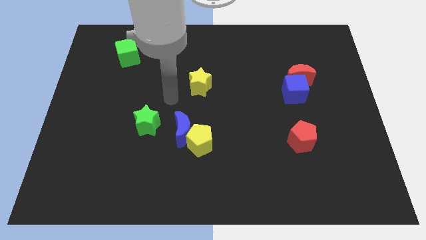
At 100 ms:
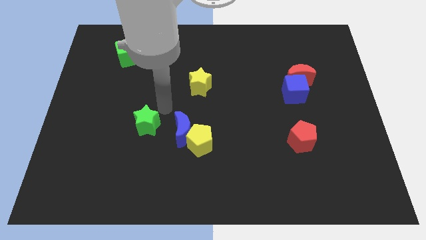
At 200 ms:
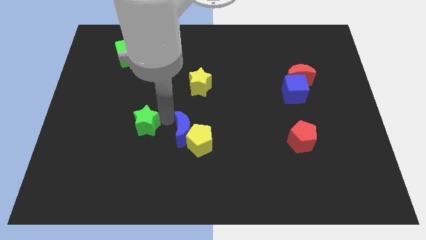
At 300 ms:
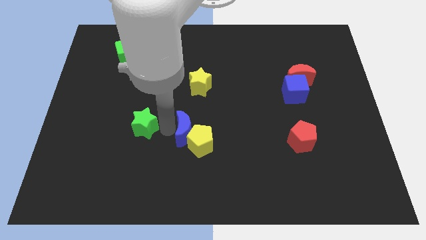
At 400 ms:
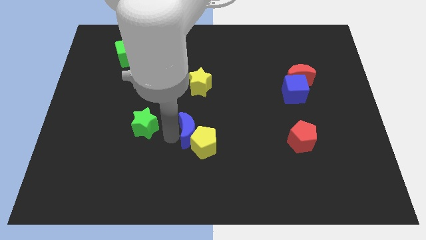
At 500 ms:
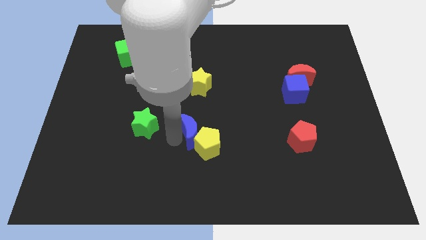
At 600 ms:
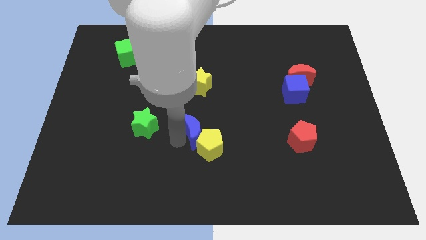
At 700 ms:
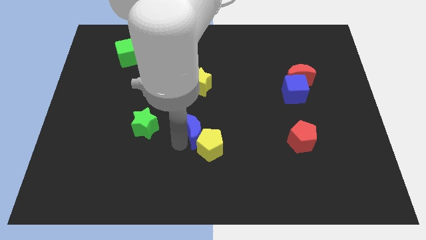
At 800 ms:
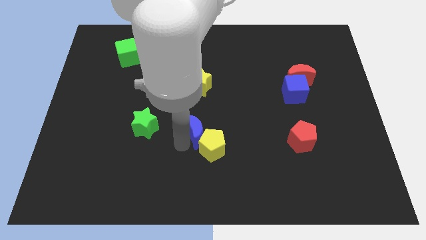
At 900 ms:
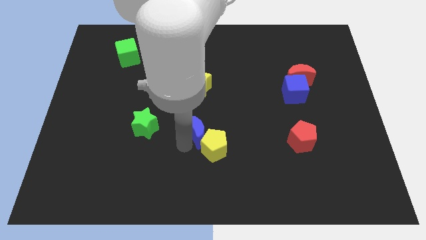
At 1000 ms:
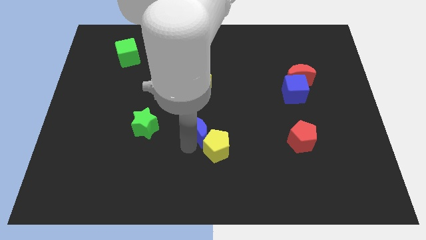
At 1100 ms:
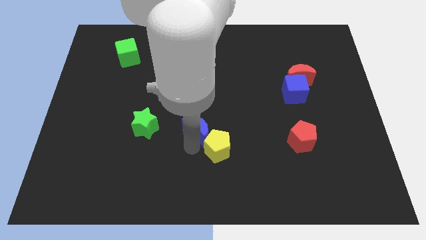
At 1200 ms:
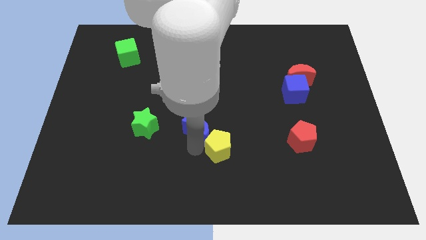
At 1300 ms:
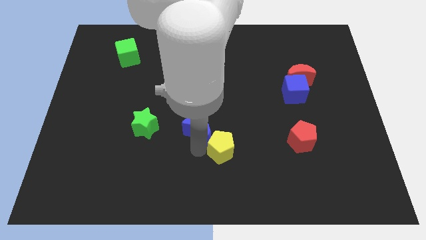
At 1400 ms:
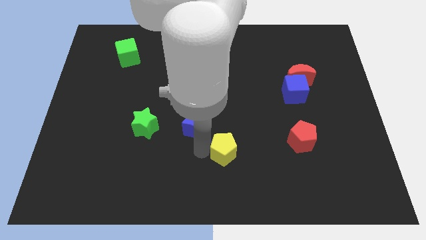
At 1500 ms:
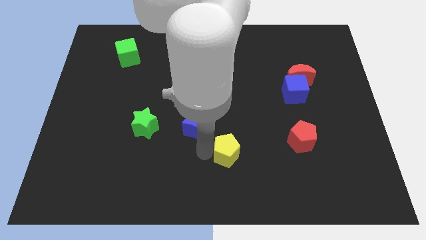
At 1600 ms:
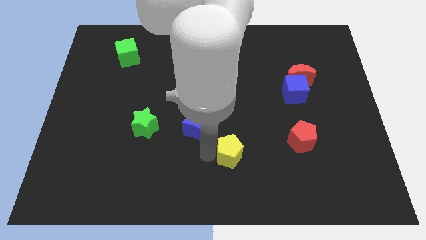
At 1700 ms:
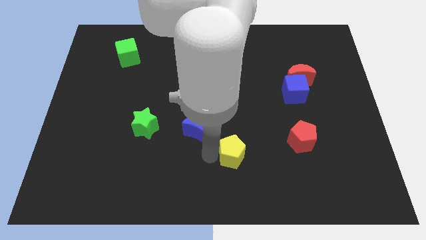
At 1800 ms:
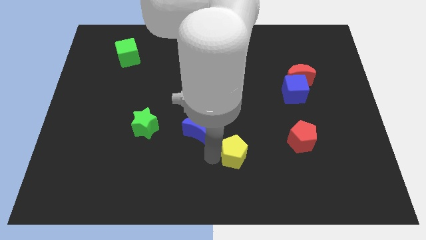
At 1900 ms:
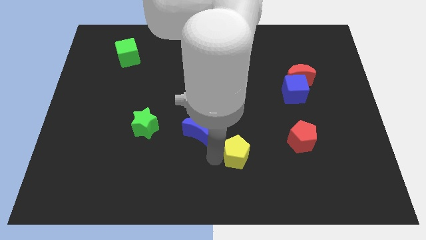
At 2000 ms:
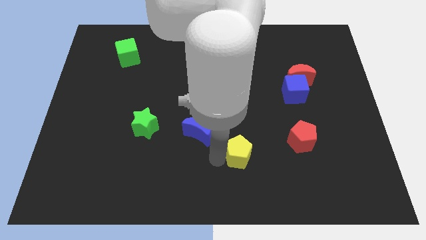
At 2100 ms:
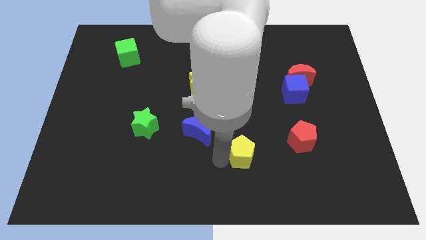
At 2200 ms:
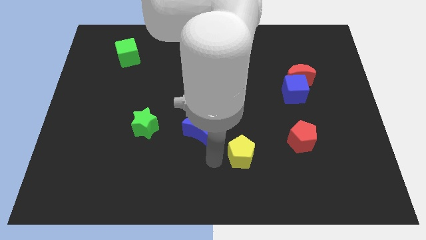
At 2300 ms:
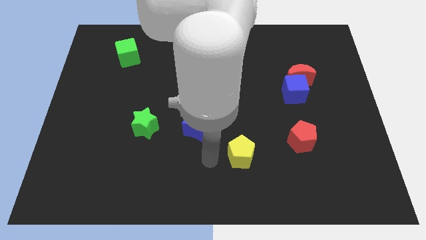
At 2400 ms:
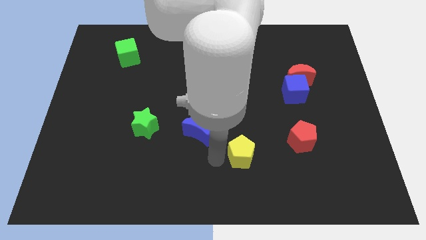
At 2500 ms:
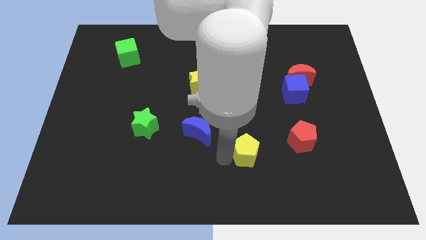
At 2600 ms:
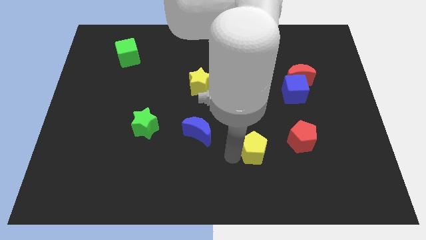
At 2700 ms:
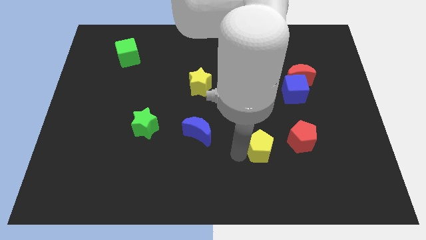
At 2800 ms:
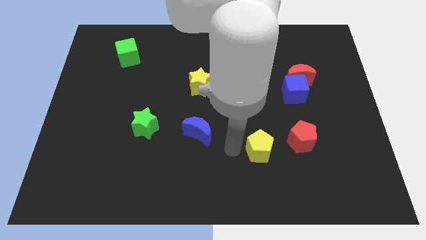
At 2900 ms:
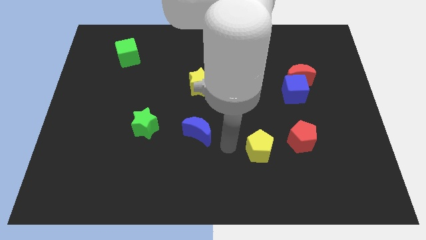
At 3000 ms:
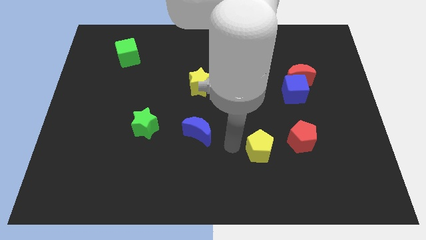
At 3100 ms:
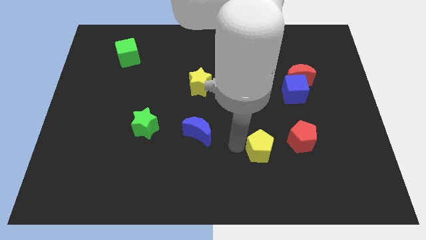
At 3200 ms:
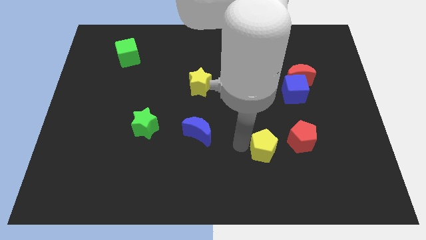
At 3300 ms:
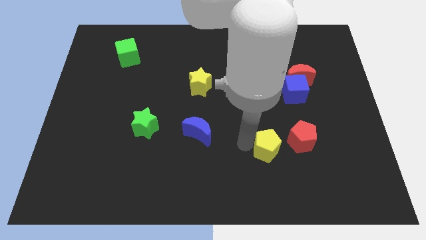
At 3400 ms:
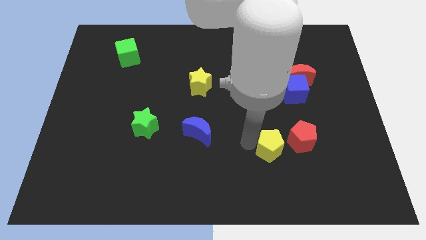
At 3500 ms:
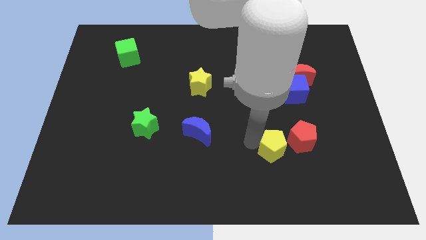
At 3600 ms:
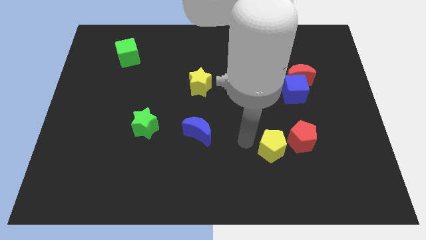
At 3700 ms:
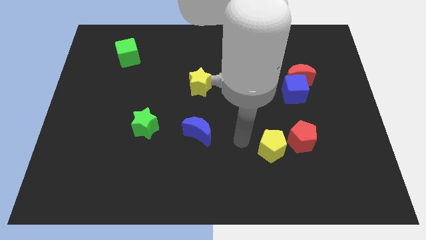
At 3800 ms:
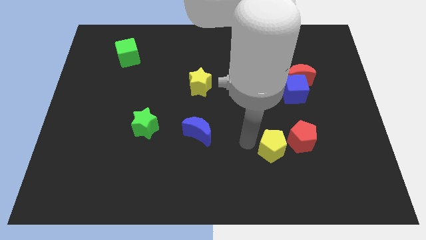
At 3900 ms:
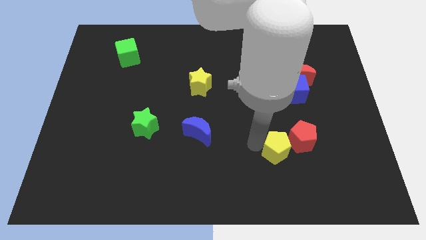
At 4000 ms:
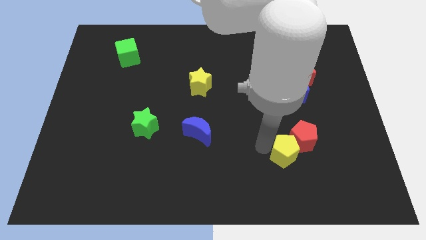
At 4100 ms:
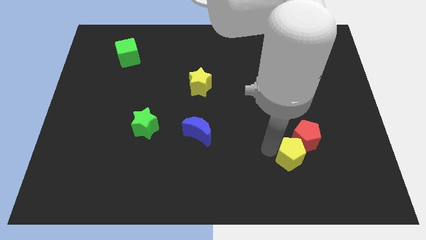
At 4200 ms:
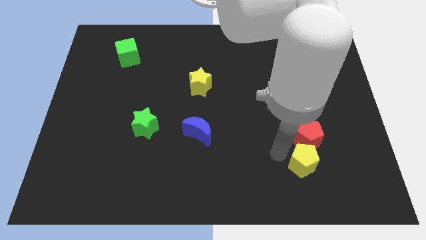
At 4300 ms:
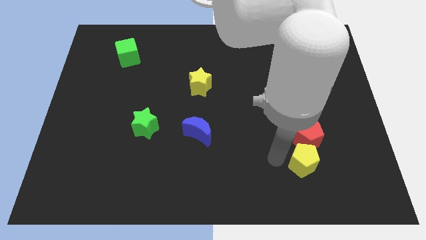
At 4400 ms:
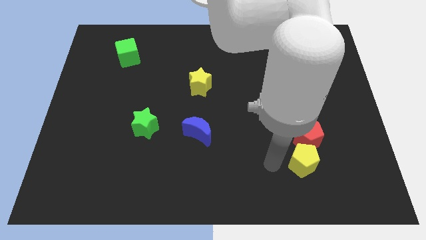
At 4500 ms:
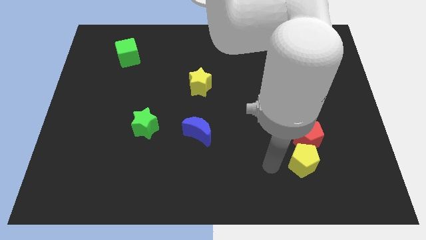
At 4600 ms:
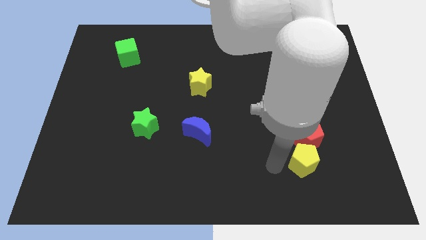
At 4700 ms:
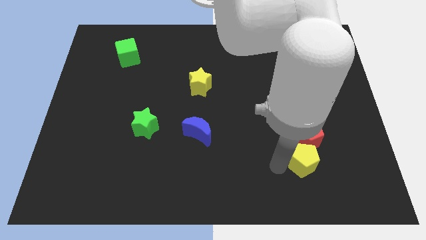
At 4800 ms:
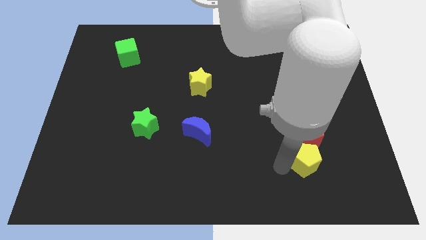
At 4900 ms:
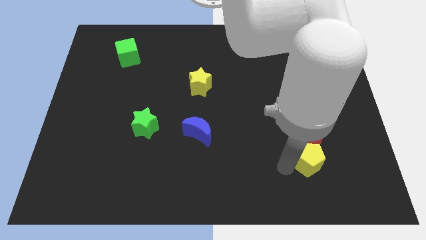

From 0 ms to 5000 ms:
slide the yellow pentagon to the bottom right of the red pentagon

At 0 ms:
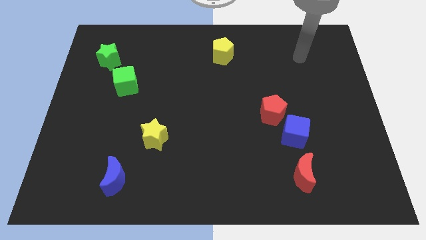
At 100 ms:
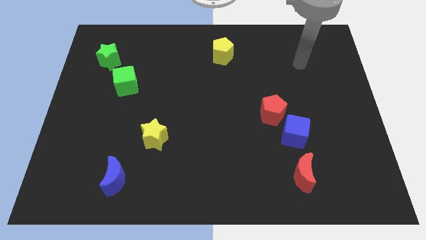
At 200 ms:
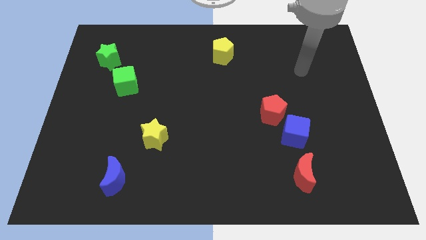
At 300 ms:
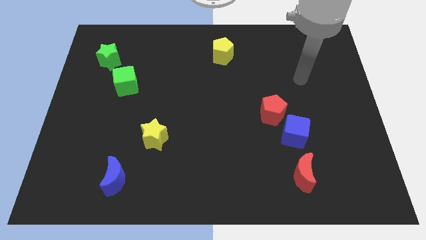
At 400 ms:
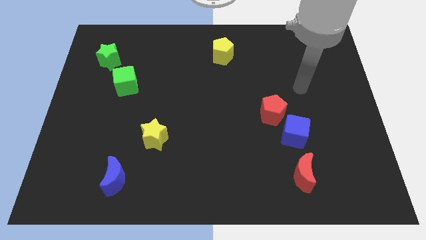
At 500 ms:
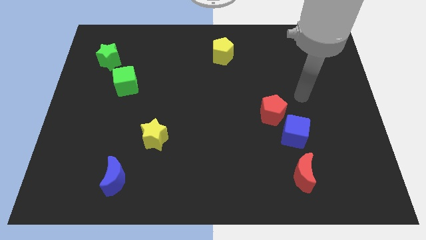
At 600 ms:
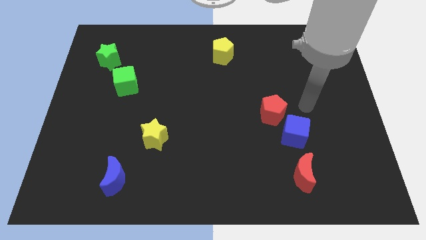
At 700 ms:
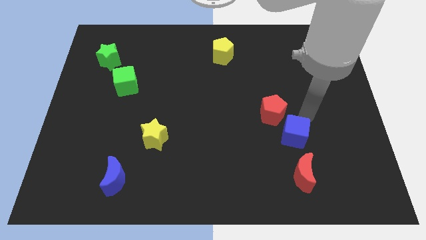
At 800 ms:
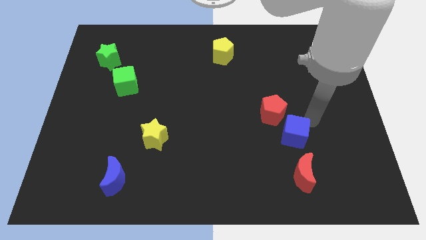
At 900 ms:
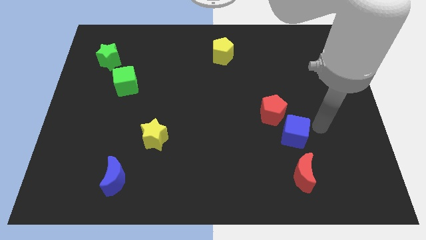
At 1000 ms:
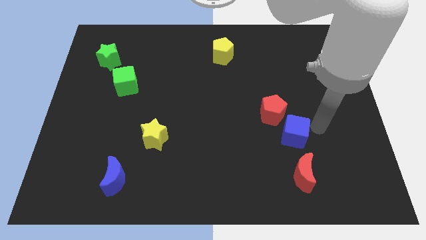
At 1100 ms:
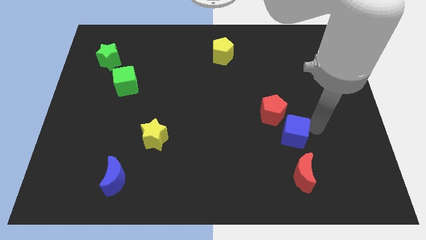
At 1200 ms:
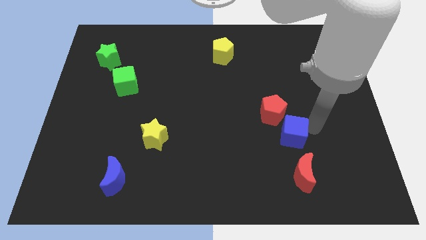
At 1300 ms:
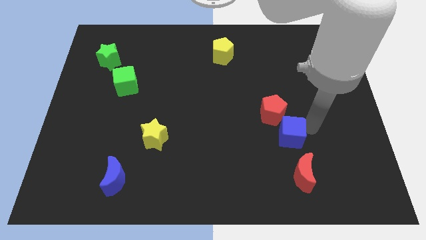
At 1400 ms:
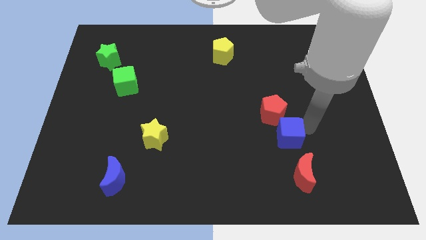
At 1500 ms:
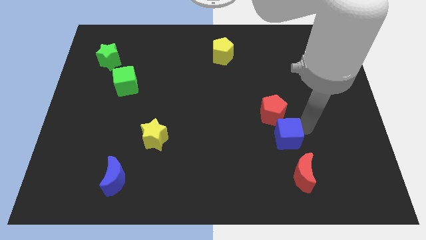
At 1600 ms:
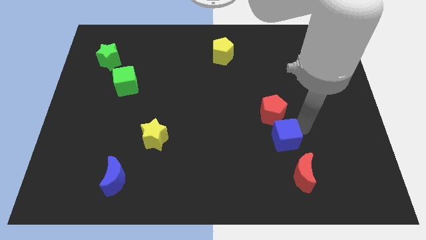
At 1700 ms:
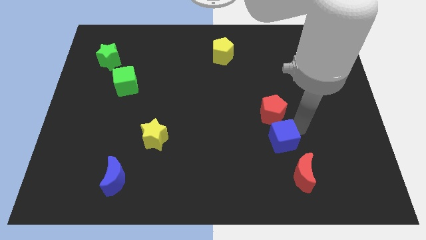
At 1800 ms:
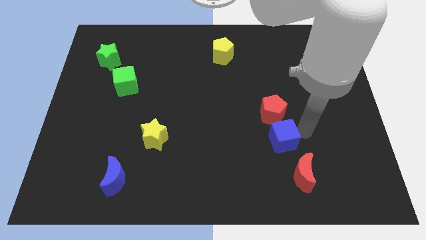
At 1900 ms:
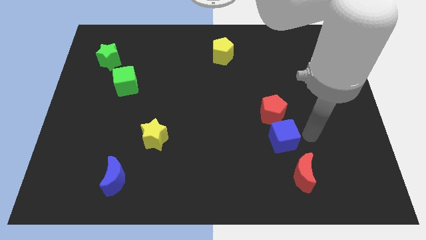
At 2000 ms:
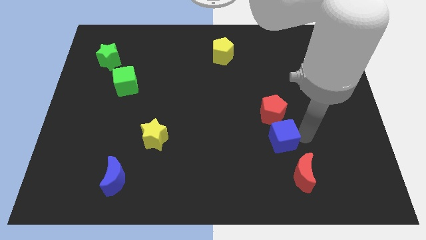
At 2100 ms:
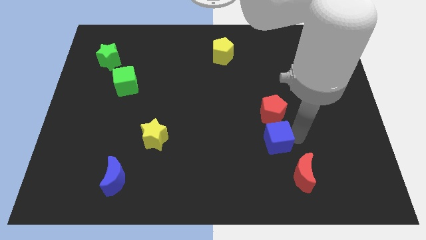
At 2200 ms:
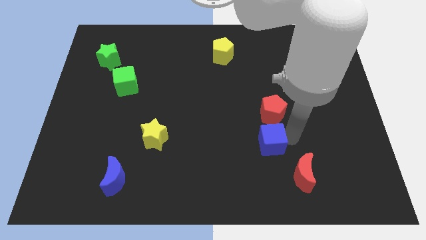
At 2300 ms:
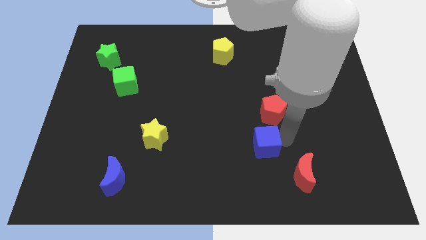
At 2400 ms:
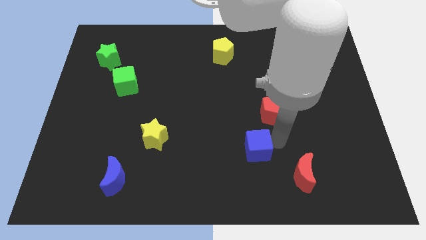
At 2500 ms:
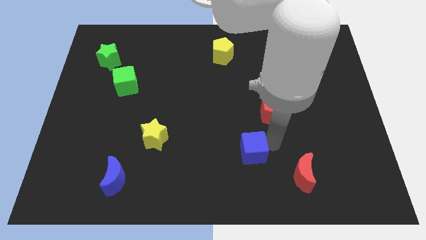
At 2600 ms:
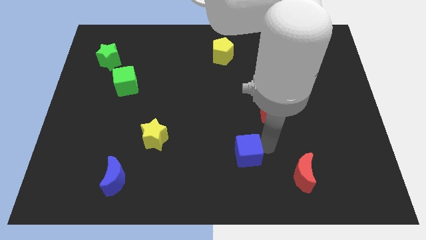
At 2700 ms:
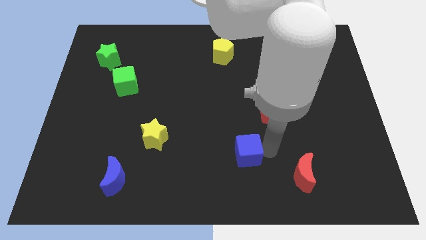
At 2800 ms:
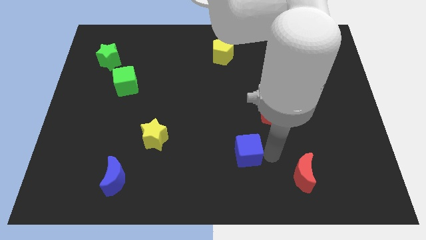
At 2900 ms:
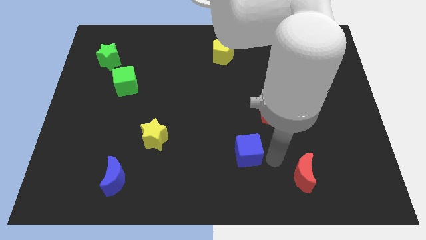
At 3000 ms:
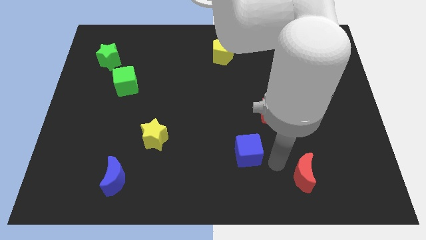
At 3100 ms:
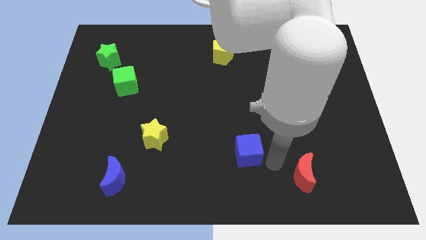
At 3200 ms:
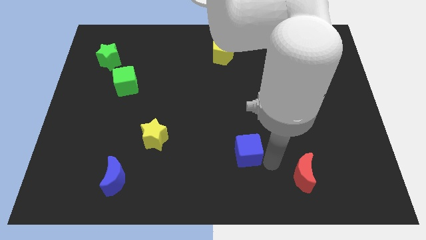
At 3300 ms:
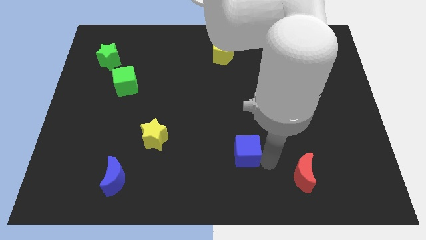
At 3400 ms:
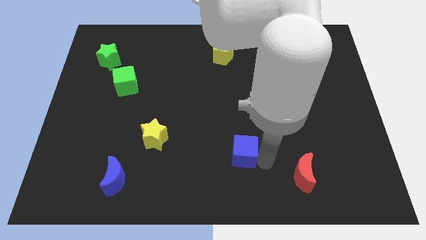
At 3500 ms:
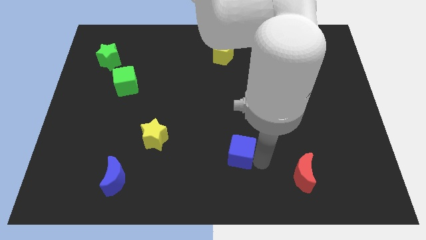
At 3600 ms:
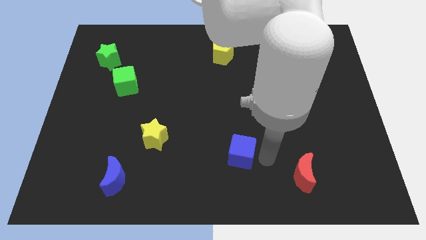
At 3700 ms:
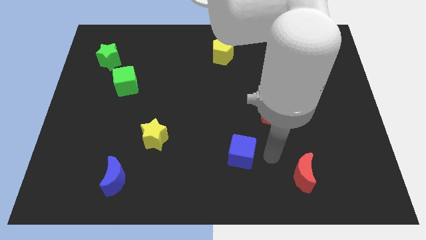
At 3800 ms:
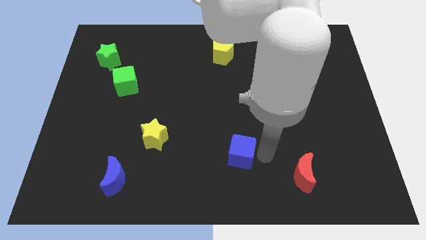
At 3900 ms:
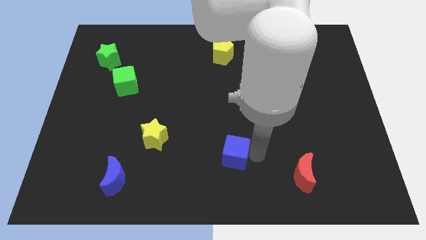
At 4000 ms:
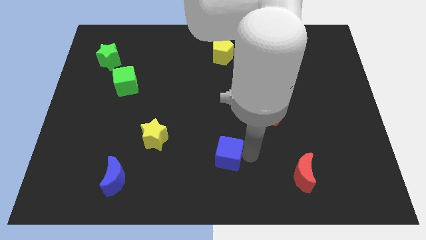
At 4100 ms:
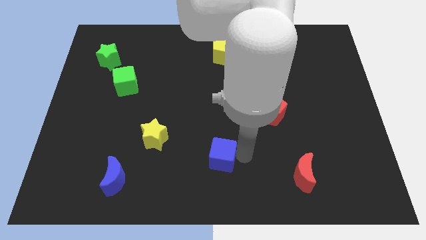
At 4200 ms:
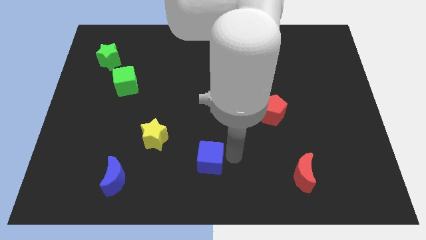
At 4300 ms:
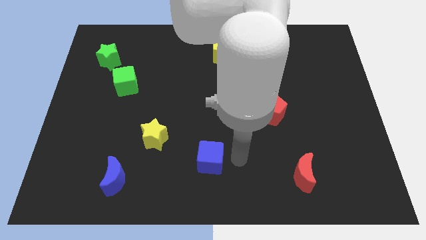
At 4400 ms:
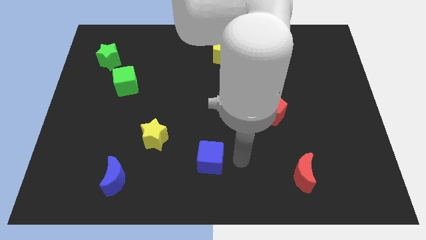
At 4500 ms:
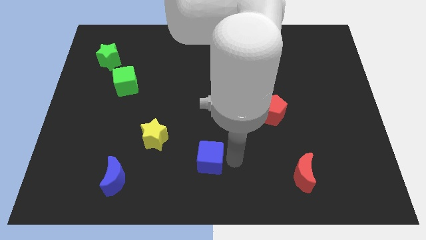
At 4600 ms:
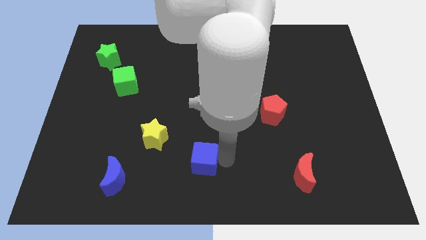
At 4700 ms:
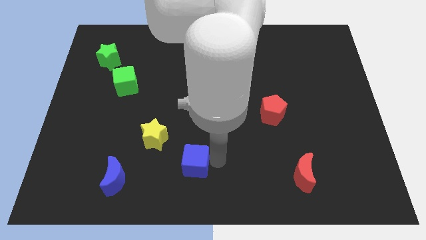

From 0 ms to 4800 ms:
move the blue cube to the bottom right side of the yellow star
